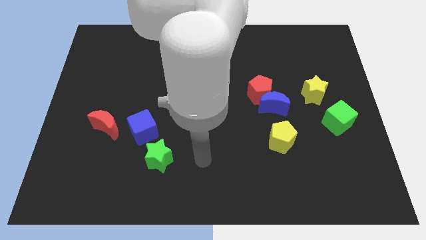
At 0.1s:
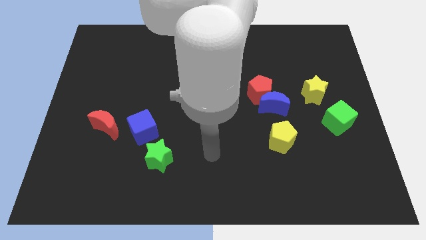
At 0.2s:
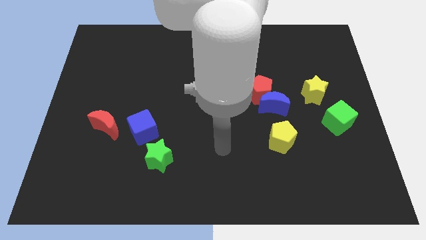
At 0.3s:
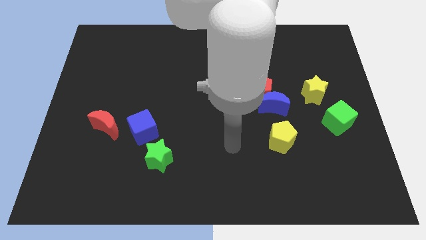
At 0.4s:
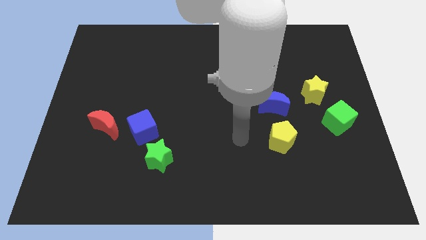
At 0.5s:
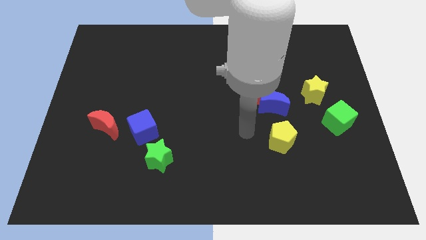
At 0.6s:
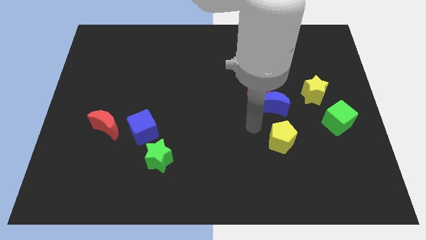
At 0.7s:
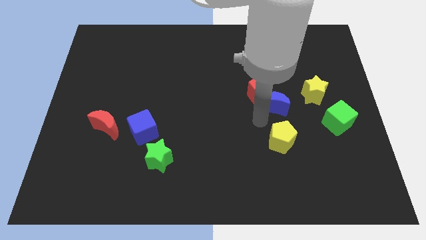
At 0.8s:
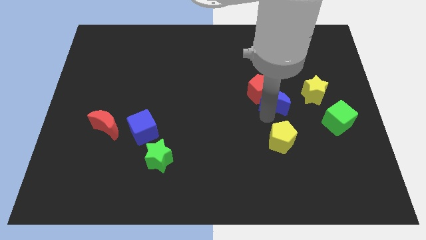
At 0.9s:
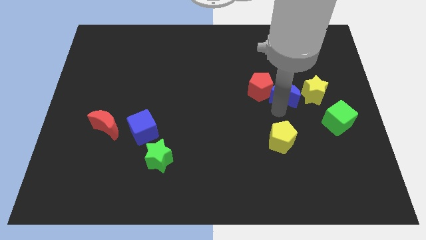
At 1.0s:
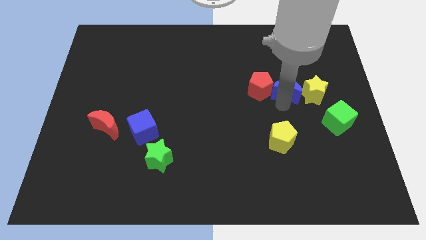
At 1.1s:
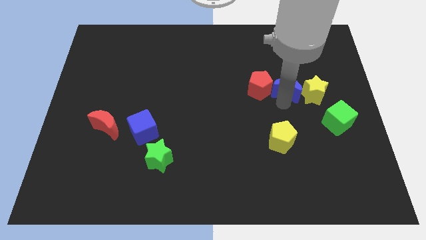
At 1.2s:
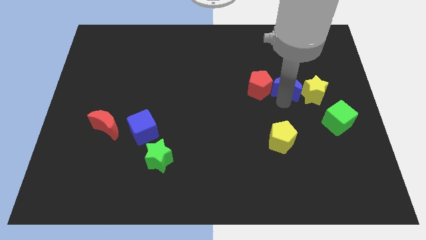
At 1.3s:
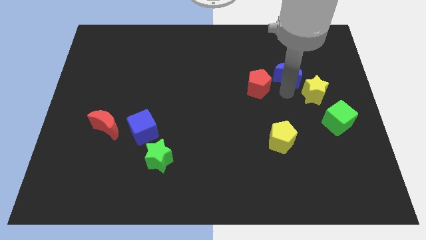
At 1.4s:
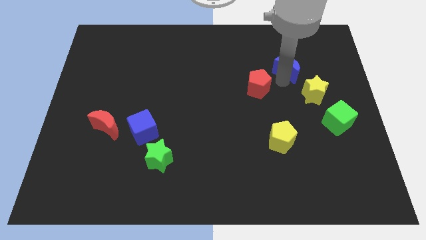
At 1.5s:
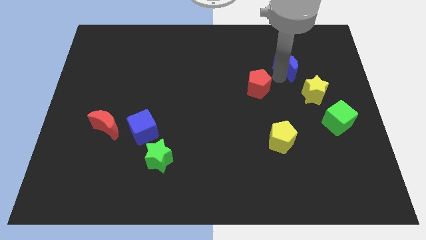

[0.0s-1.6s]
move the red pentagon away from the blue moon

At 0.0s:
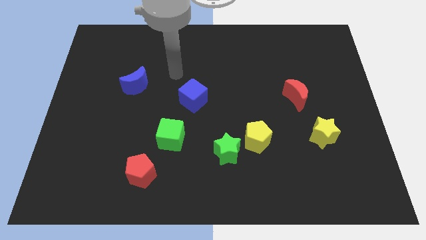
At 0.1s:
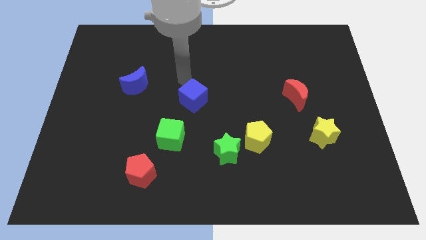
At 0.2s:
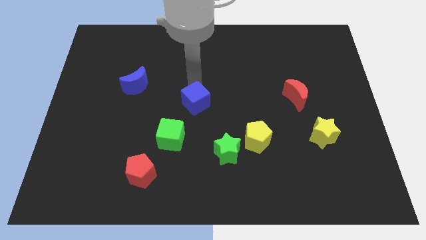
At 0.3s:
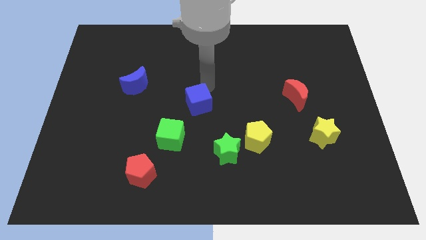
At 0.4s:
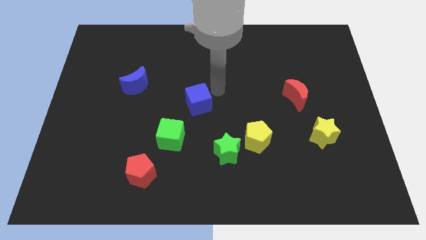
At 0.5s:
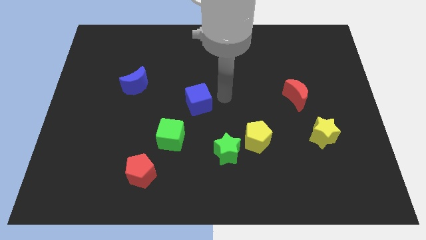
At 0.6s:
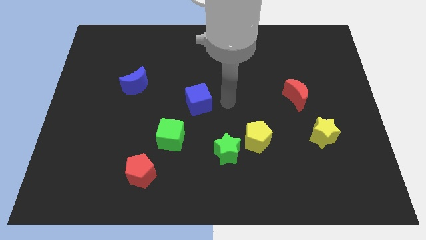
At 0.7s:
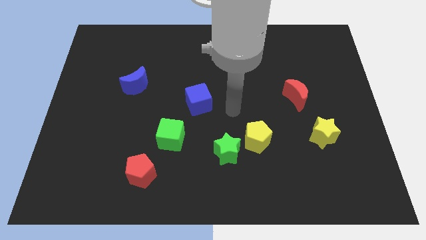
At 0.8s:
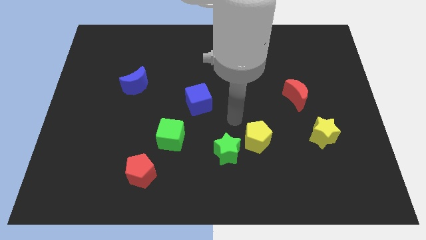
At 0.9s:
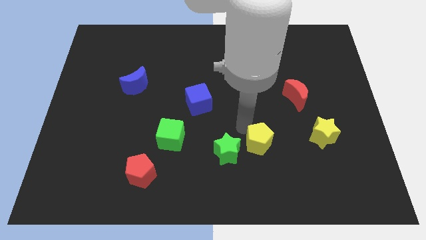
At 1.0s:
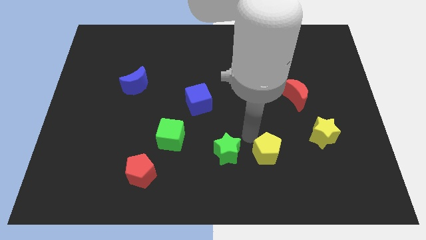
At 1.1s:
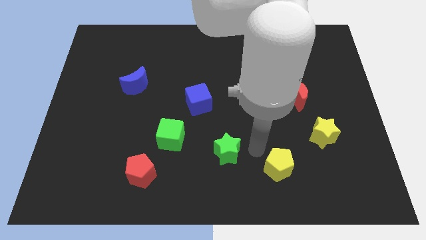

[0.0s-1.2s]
separate the green star from the yellow pentagon

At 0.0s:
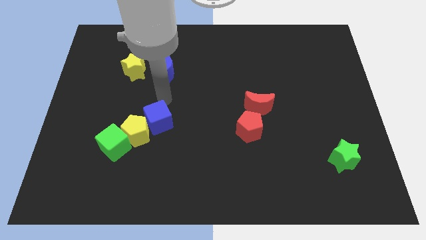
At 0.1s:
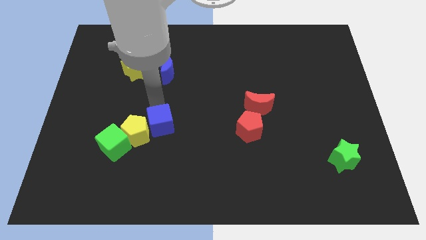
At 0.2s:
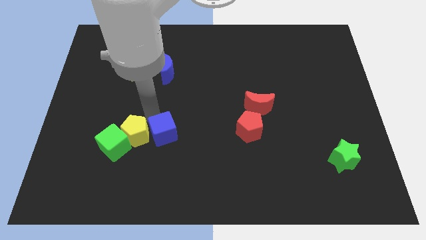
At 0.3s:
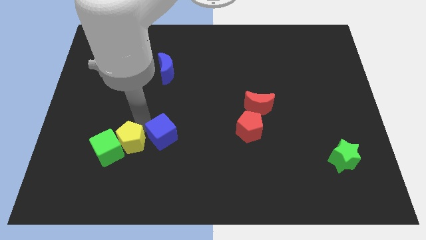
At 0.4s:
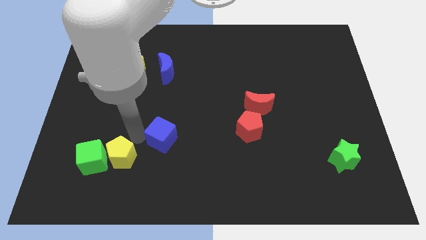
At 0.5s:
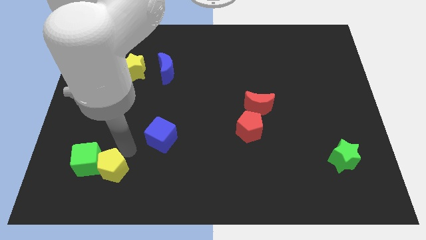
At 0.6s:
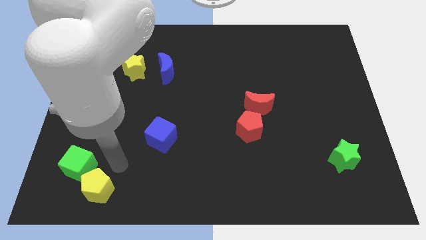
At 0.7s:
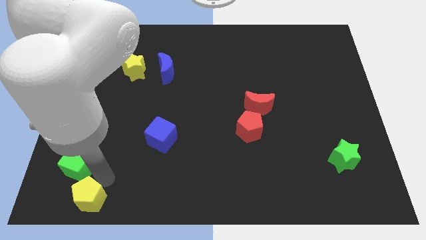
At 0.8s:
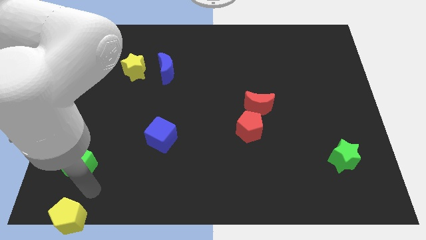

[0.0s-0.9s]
separate the green cube from the yellow pentagon

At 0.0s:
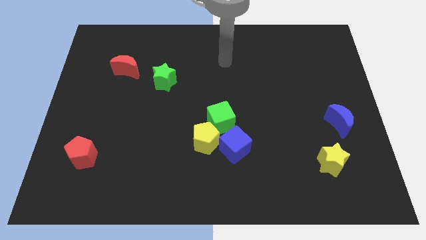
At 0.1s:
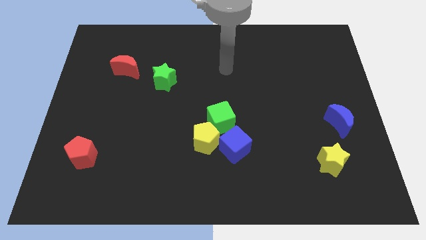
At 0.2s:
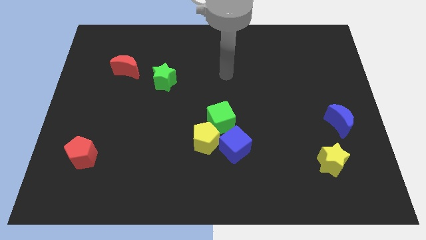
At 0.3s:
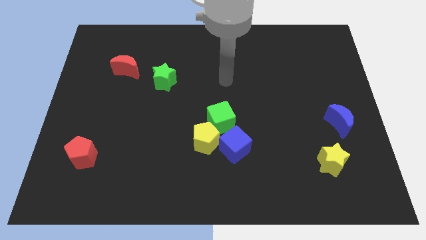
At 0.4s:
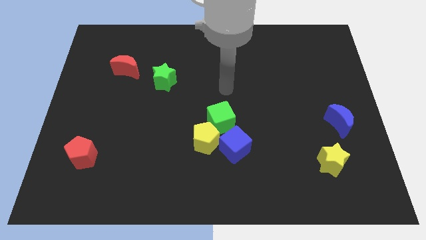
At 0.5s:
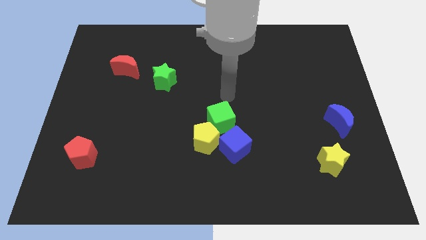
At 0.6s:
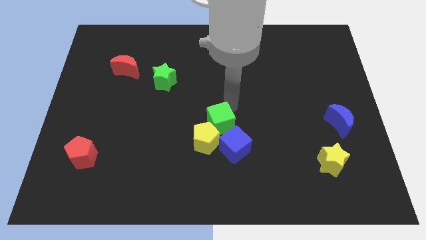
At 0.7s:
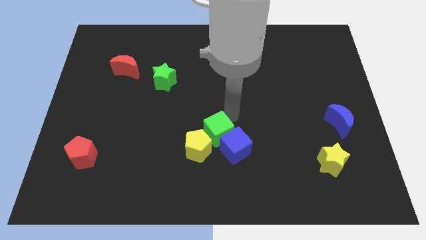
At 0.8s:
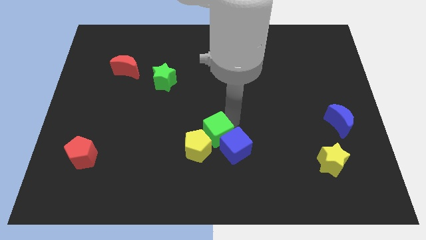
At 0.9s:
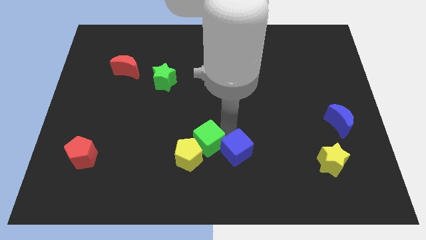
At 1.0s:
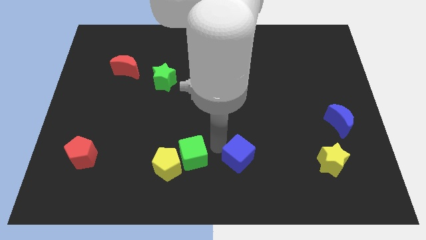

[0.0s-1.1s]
move the yellow pentagon away from the green cube and blue cube

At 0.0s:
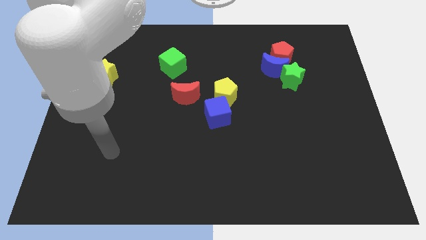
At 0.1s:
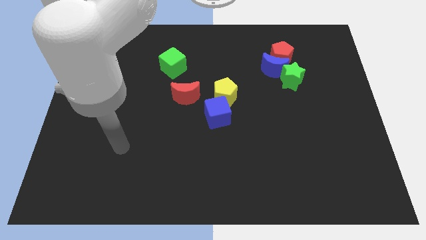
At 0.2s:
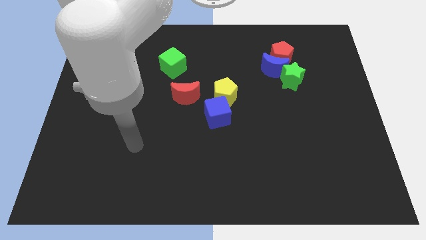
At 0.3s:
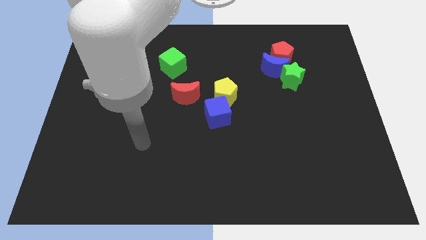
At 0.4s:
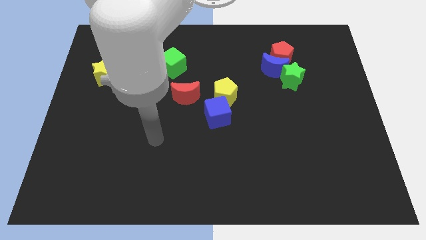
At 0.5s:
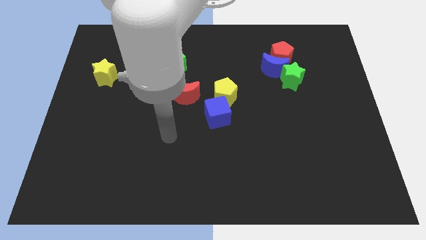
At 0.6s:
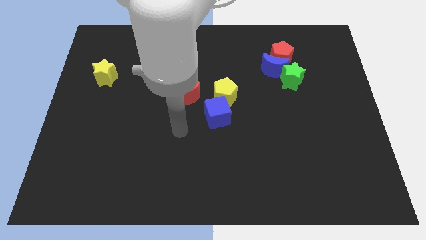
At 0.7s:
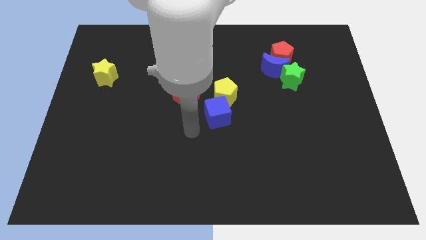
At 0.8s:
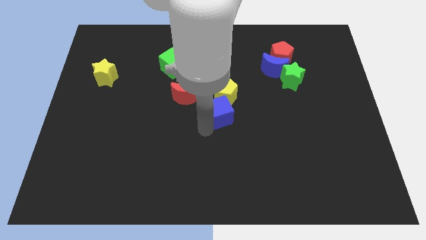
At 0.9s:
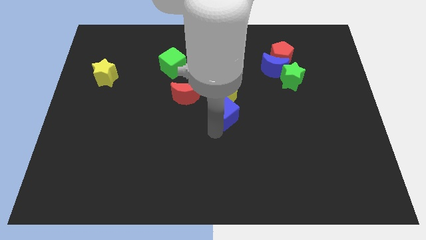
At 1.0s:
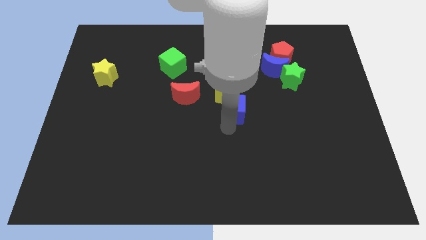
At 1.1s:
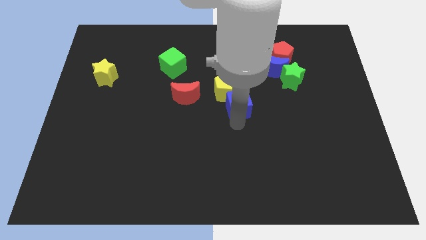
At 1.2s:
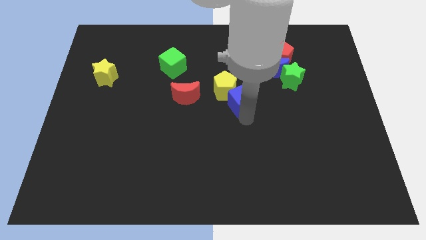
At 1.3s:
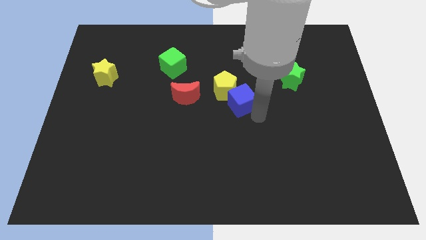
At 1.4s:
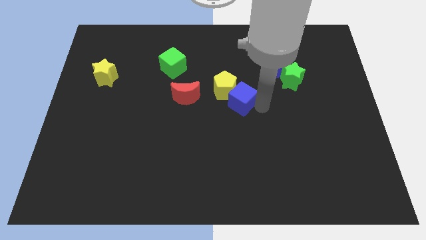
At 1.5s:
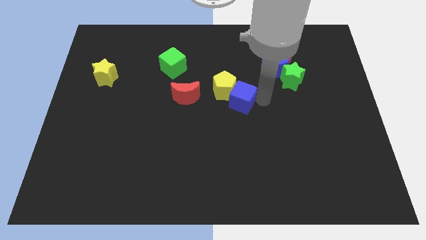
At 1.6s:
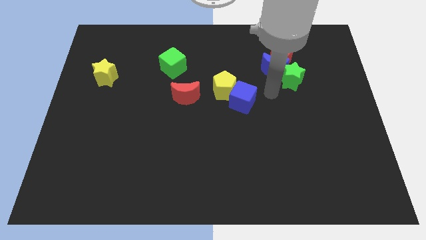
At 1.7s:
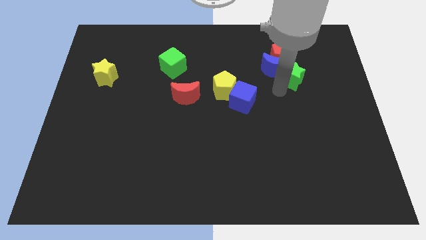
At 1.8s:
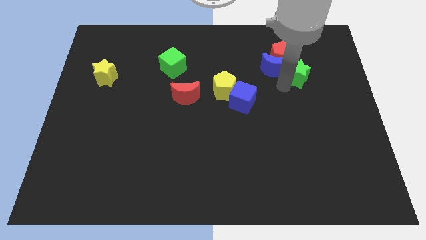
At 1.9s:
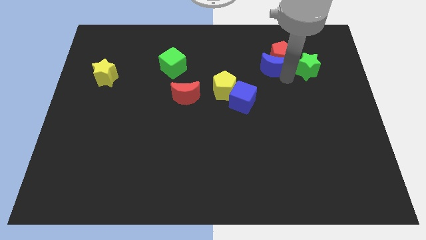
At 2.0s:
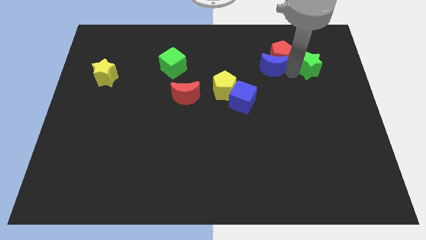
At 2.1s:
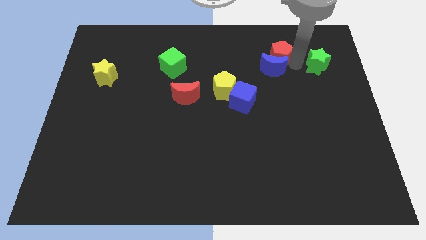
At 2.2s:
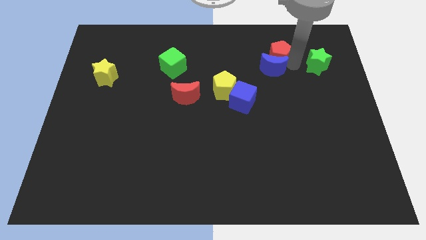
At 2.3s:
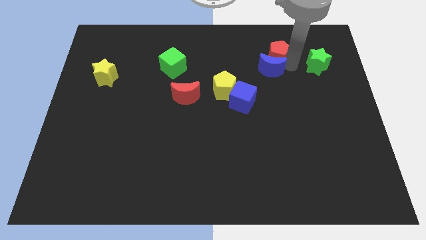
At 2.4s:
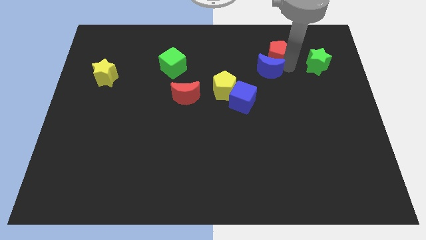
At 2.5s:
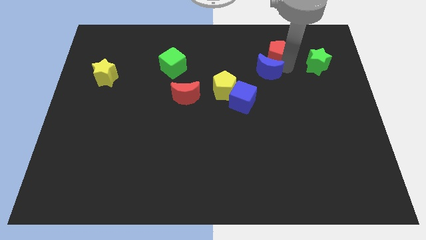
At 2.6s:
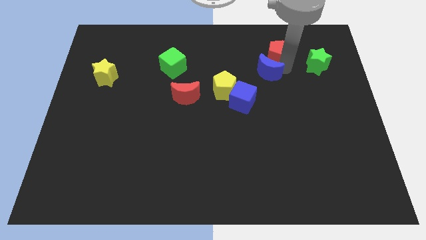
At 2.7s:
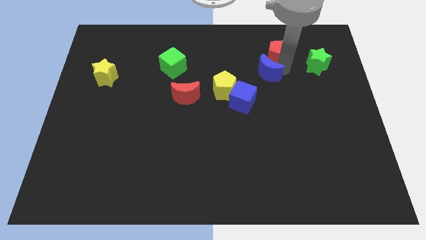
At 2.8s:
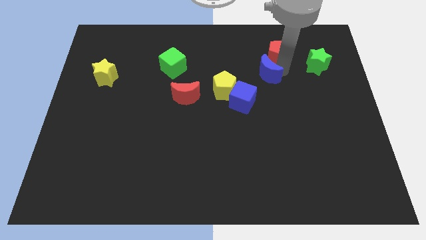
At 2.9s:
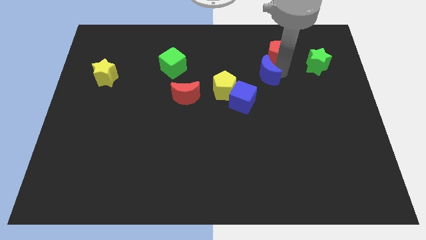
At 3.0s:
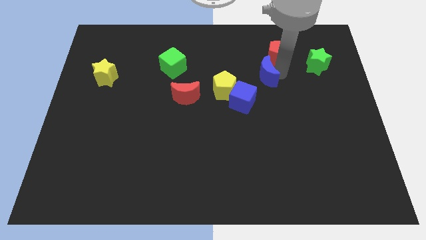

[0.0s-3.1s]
move the blue moon away from the red pentagon and green star

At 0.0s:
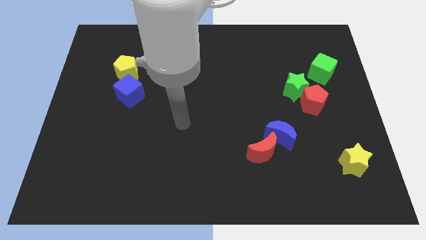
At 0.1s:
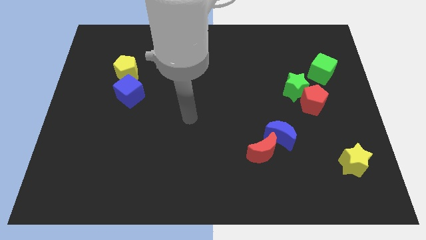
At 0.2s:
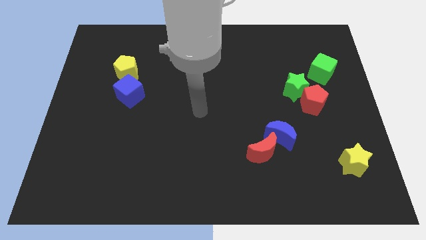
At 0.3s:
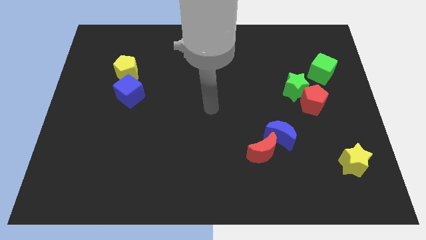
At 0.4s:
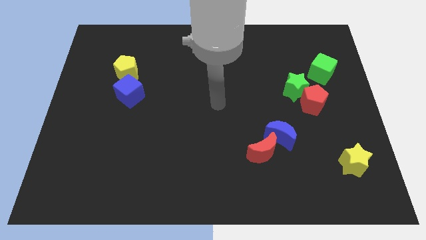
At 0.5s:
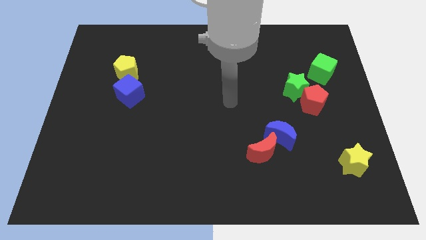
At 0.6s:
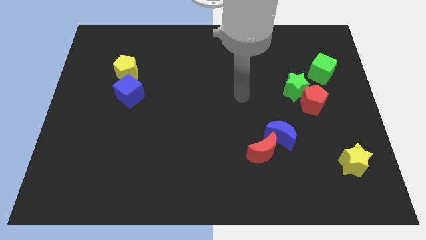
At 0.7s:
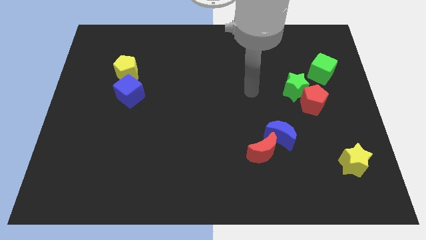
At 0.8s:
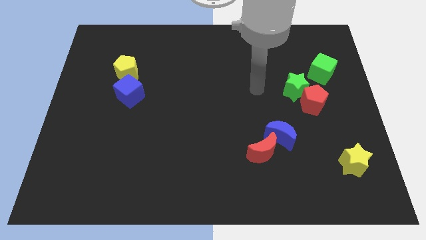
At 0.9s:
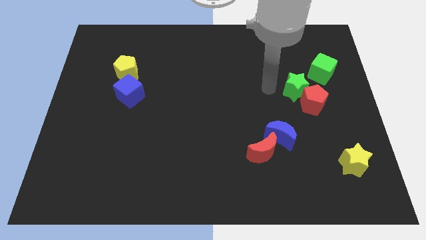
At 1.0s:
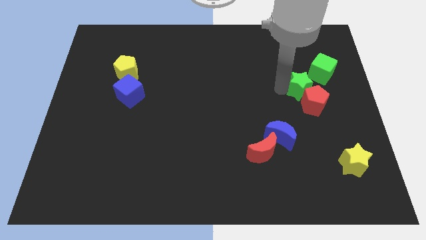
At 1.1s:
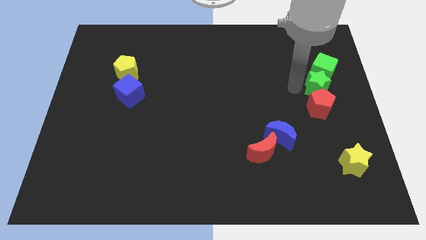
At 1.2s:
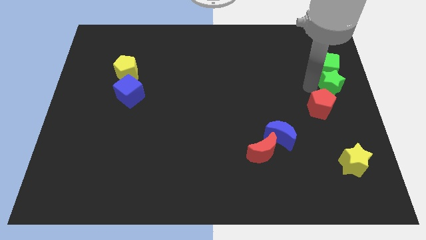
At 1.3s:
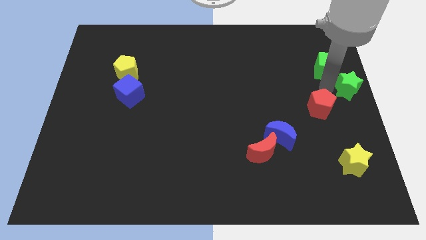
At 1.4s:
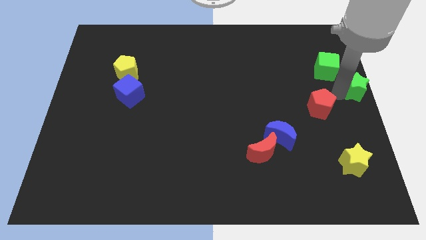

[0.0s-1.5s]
separate the red pentagon from the green star
